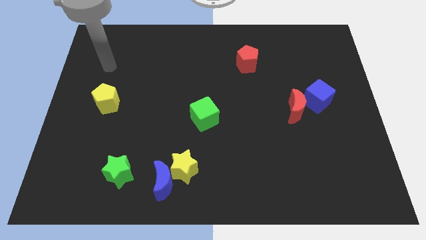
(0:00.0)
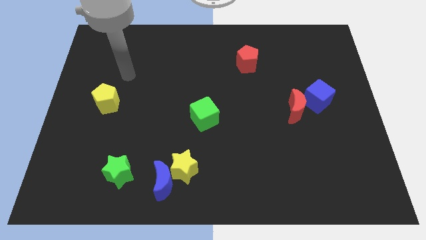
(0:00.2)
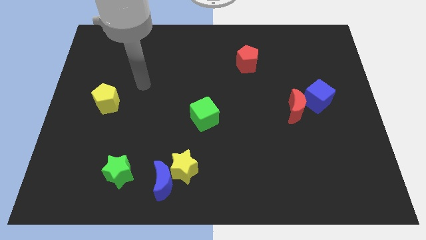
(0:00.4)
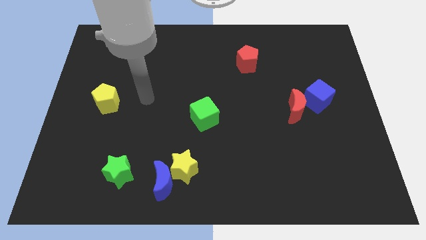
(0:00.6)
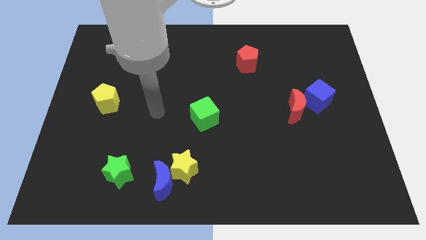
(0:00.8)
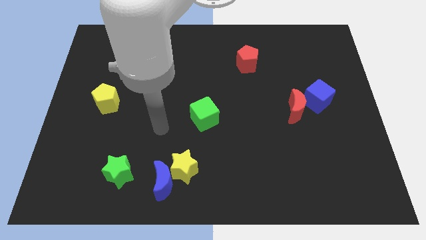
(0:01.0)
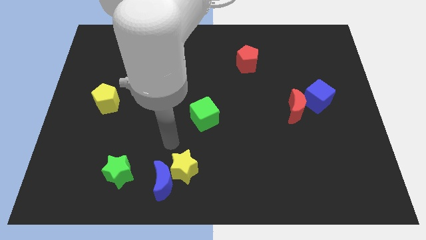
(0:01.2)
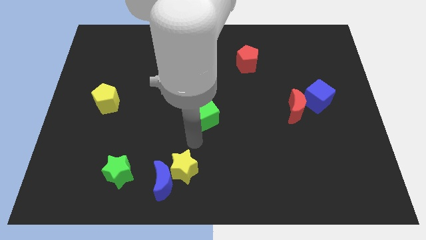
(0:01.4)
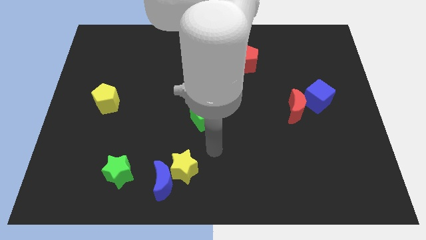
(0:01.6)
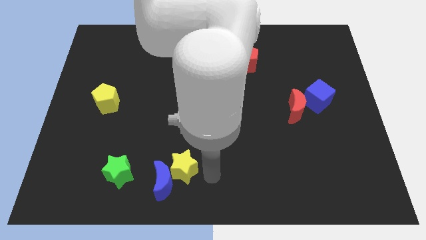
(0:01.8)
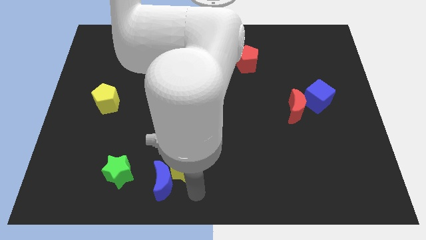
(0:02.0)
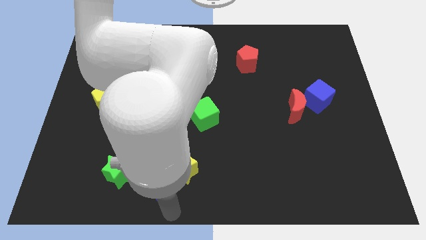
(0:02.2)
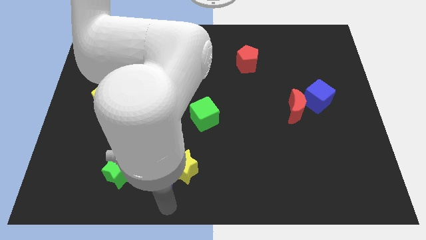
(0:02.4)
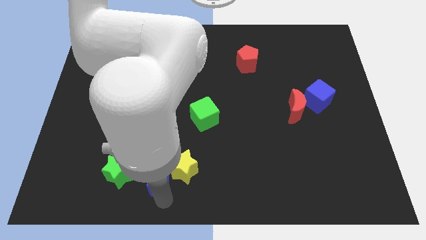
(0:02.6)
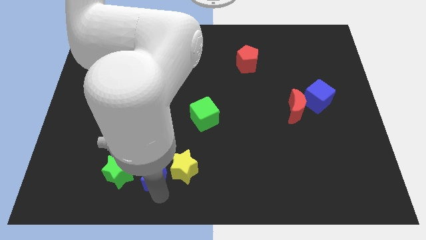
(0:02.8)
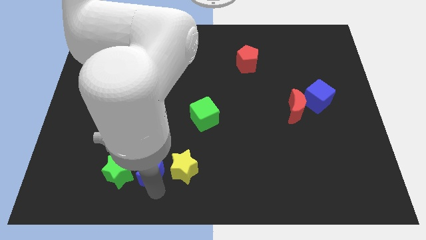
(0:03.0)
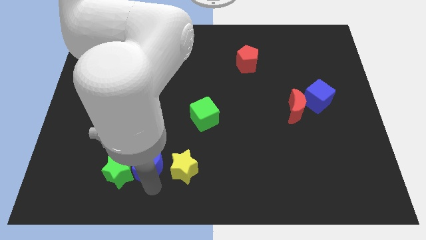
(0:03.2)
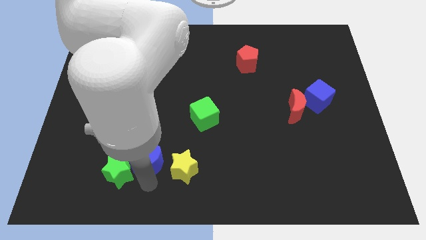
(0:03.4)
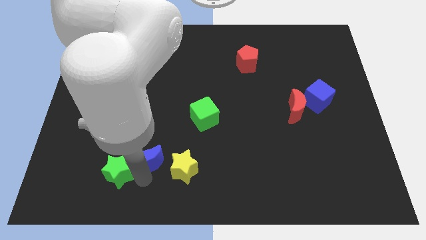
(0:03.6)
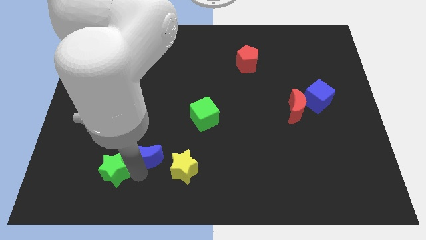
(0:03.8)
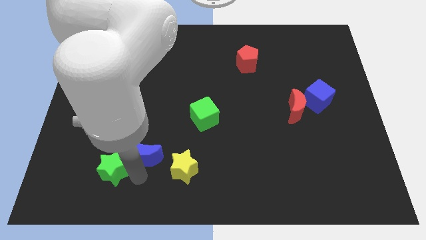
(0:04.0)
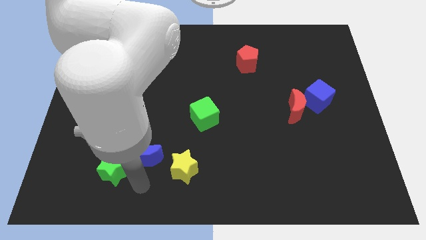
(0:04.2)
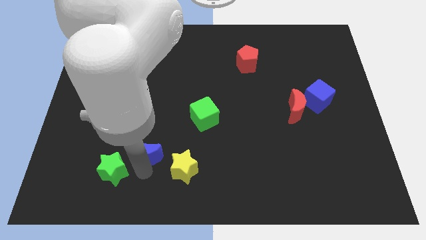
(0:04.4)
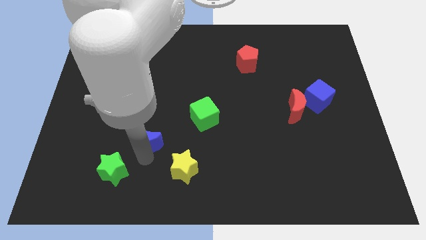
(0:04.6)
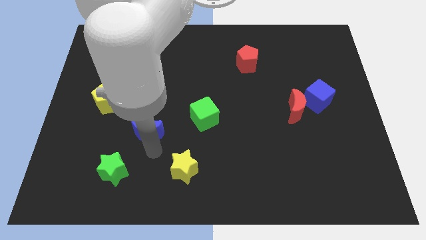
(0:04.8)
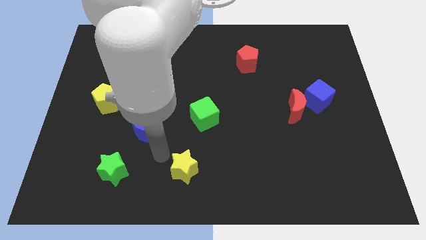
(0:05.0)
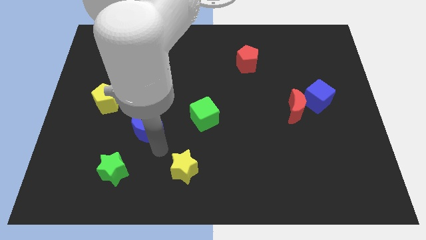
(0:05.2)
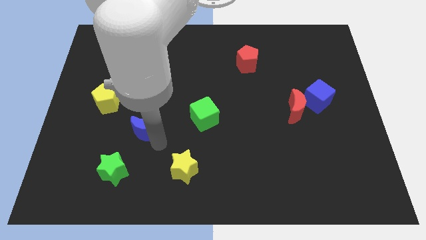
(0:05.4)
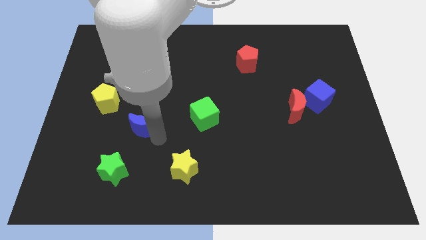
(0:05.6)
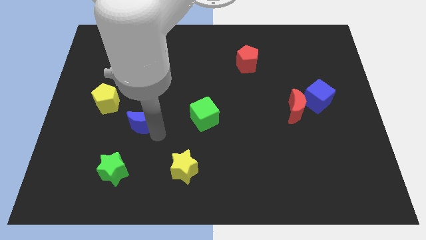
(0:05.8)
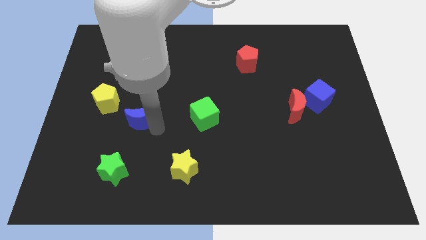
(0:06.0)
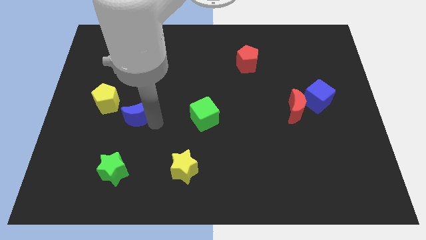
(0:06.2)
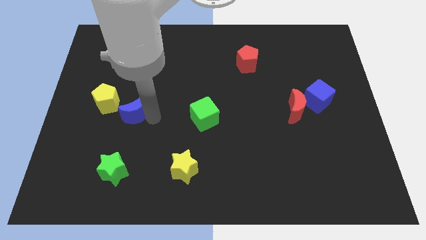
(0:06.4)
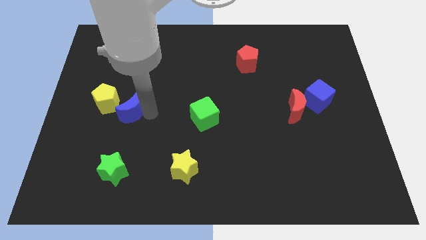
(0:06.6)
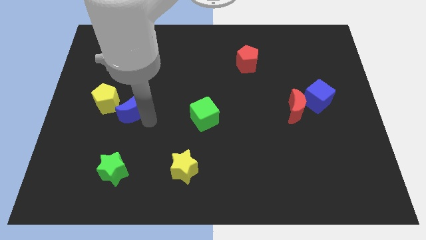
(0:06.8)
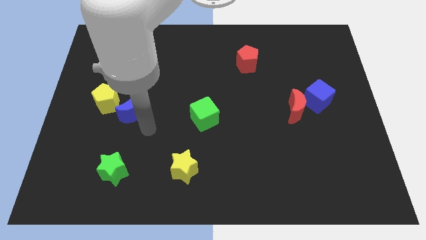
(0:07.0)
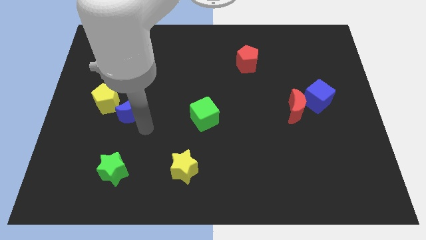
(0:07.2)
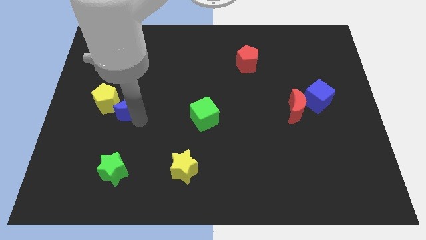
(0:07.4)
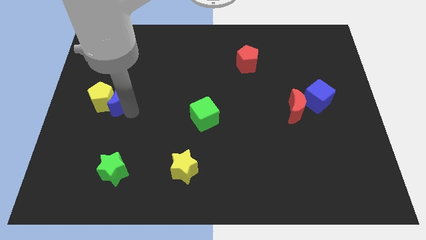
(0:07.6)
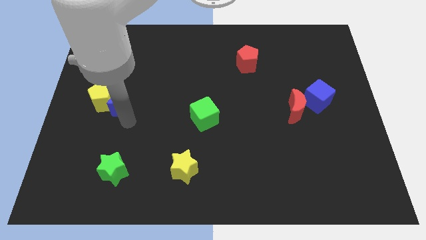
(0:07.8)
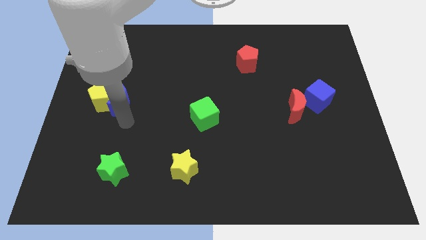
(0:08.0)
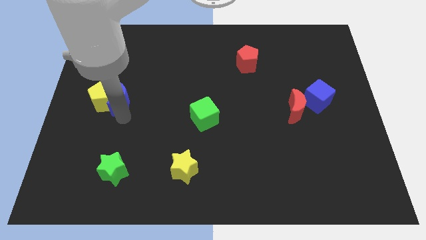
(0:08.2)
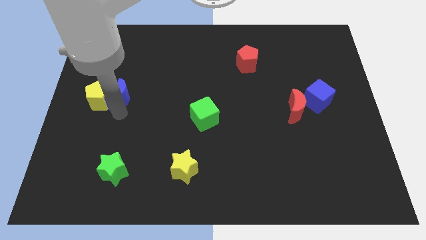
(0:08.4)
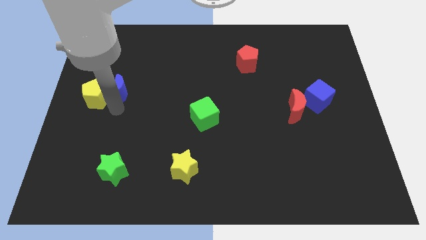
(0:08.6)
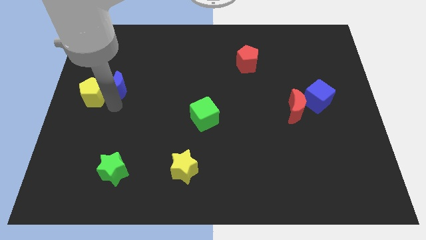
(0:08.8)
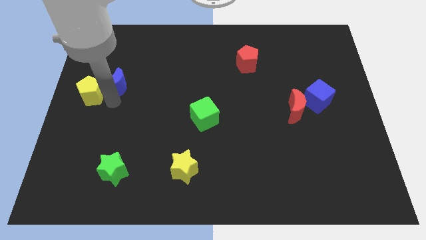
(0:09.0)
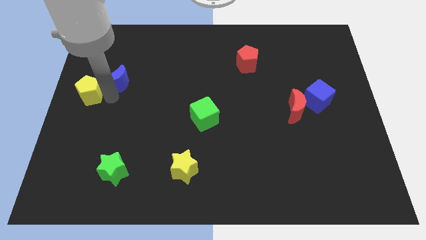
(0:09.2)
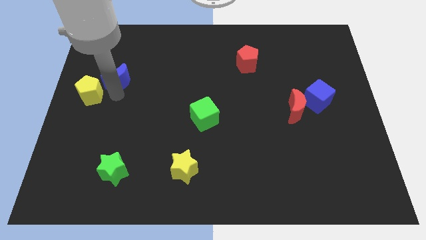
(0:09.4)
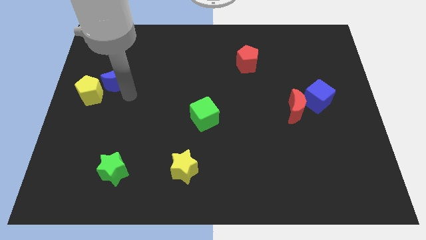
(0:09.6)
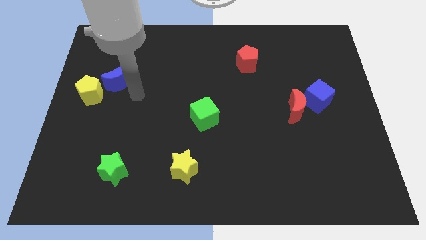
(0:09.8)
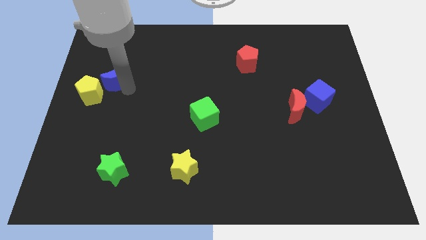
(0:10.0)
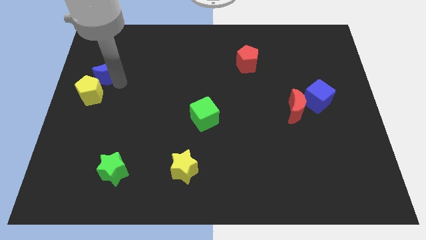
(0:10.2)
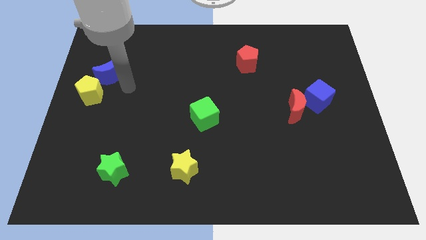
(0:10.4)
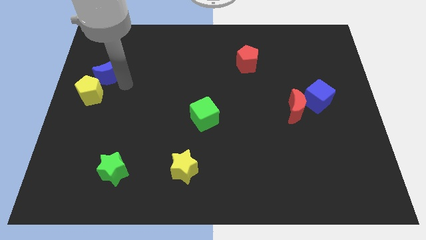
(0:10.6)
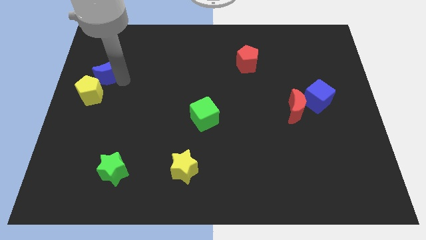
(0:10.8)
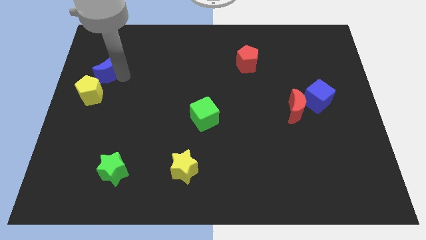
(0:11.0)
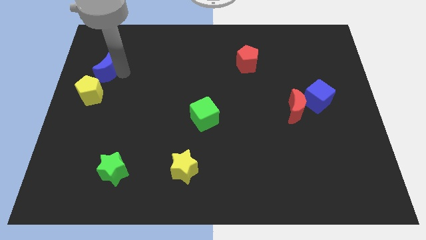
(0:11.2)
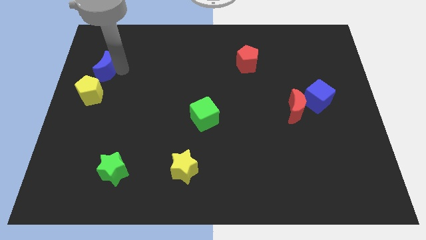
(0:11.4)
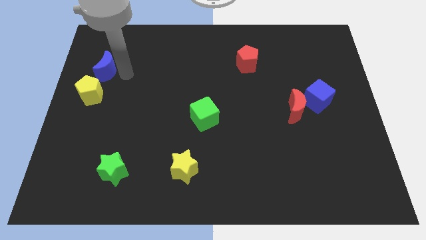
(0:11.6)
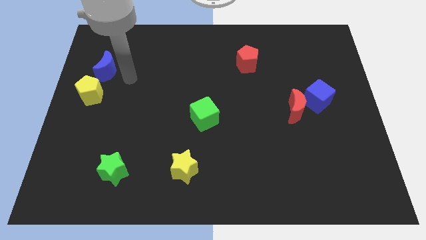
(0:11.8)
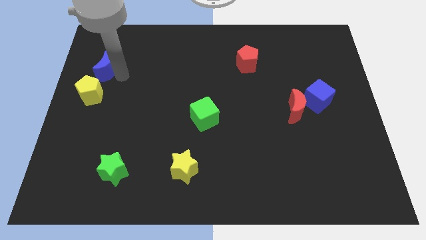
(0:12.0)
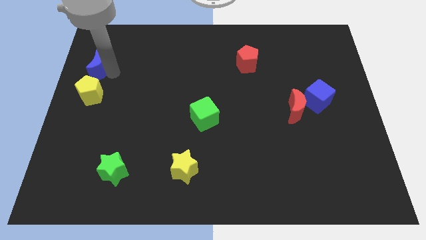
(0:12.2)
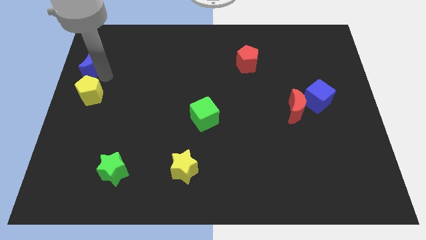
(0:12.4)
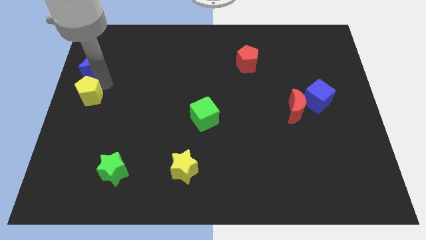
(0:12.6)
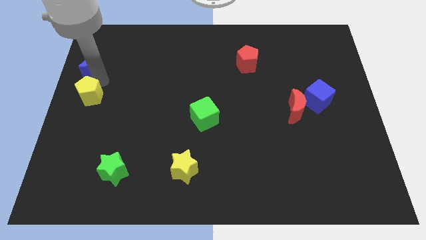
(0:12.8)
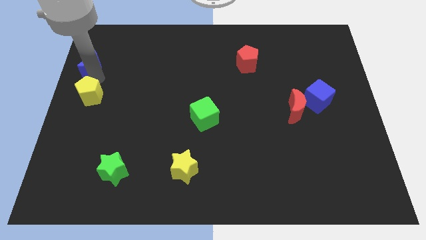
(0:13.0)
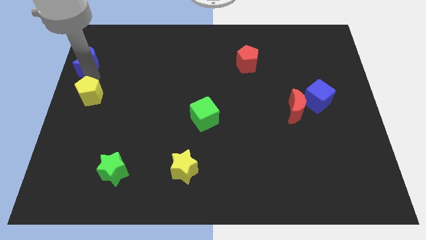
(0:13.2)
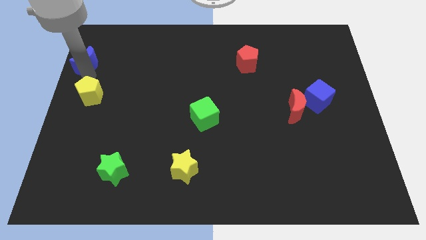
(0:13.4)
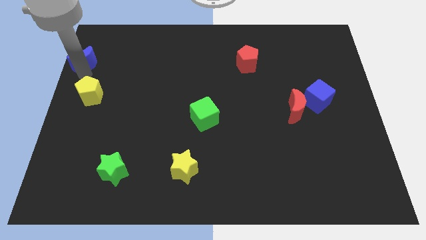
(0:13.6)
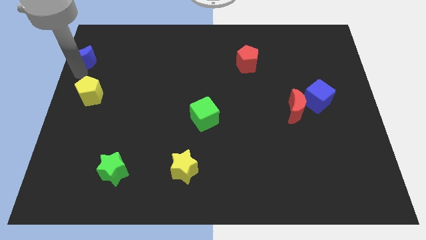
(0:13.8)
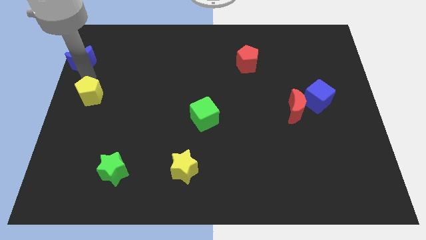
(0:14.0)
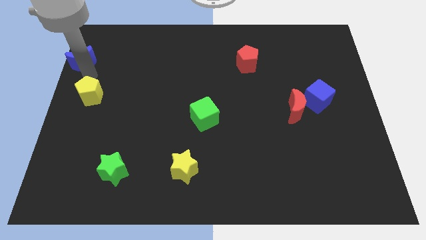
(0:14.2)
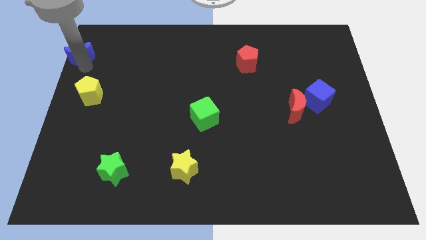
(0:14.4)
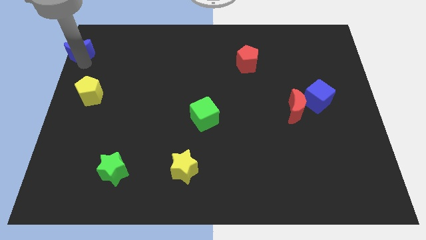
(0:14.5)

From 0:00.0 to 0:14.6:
put the blue moon to the top left
